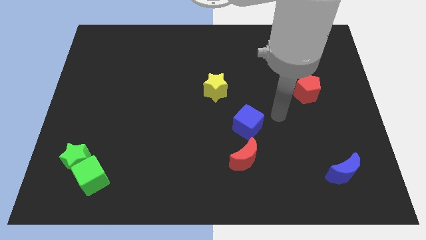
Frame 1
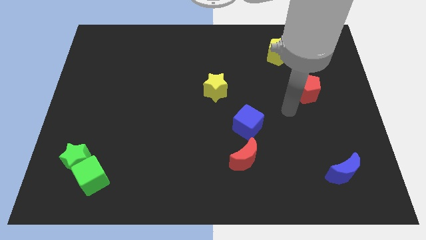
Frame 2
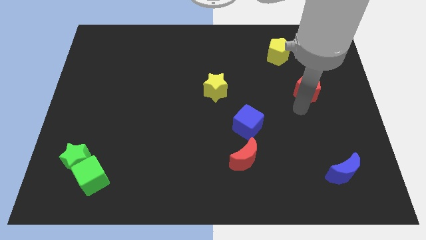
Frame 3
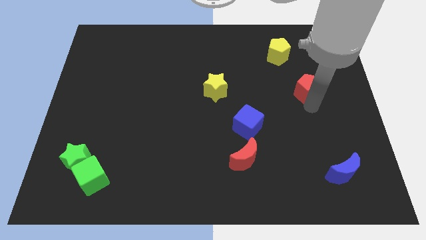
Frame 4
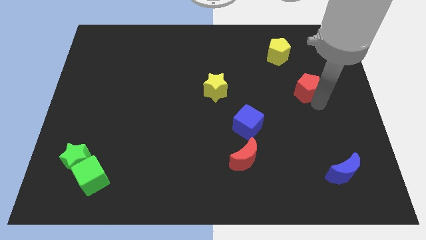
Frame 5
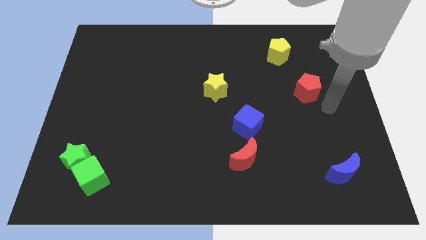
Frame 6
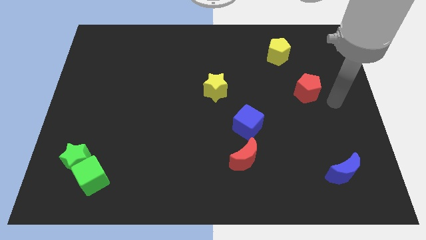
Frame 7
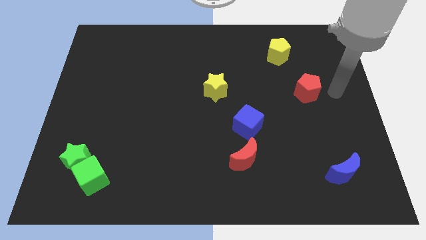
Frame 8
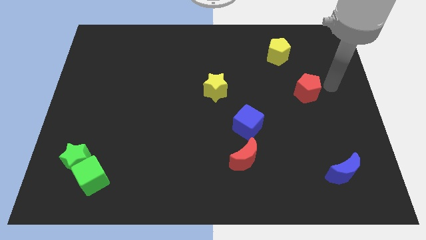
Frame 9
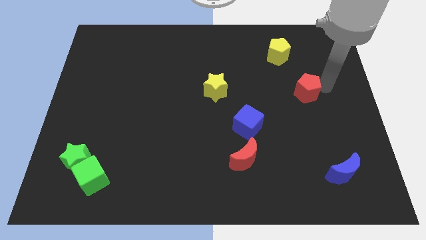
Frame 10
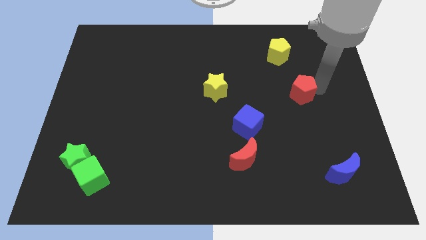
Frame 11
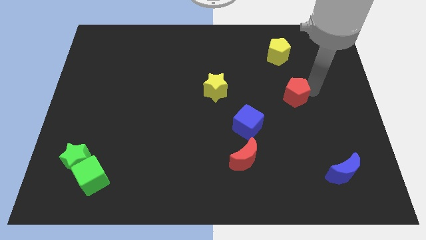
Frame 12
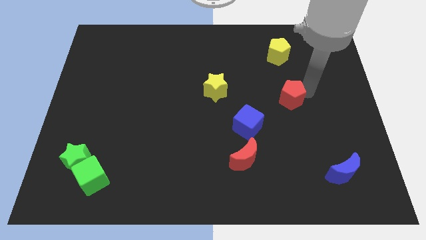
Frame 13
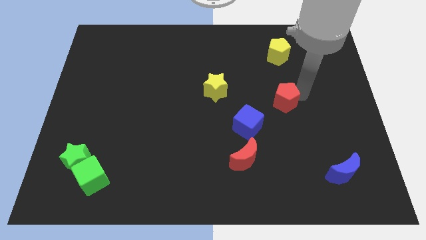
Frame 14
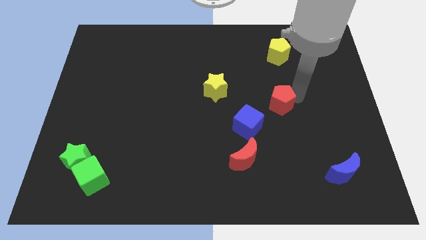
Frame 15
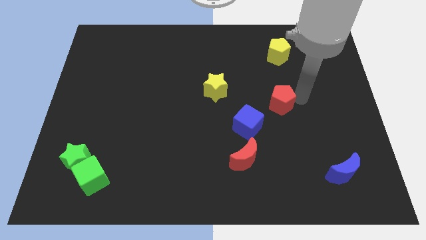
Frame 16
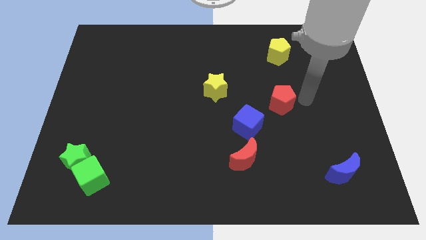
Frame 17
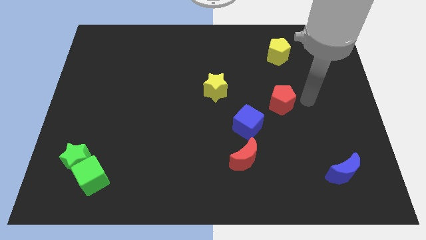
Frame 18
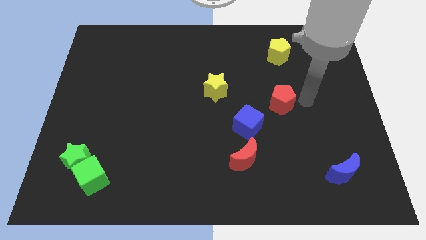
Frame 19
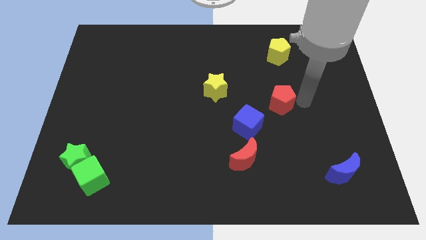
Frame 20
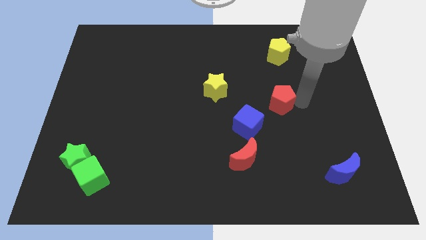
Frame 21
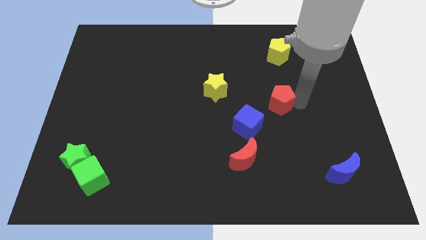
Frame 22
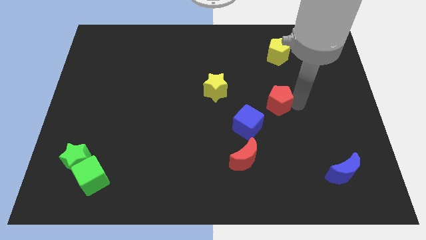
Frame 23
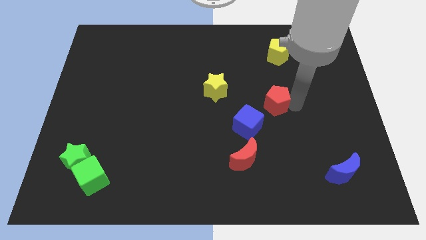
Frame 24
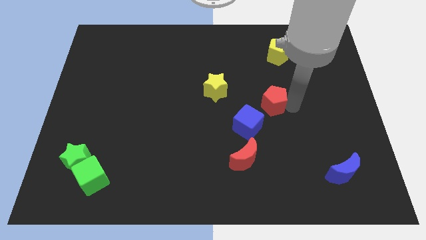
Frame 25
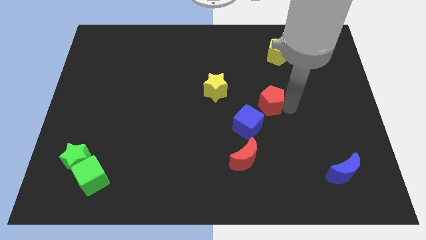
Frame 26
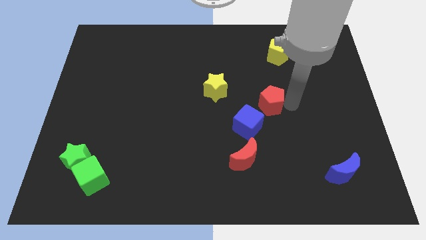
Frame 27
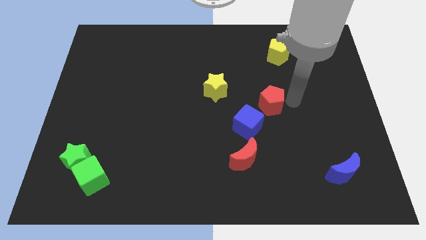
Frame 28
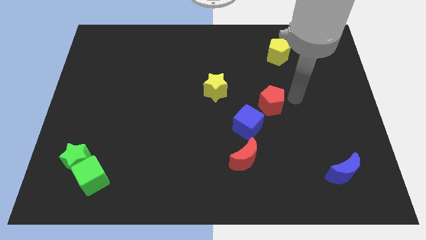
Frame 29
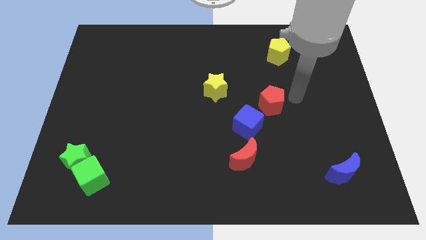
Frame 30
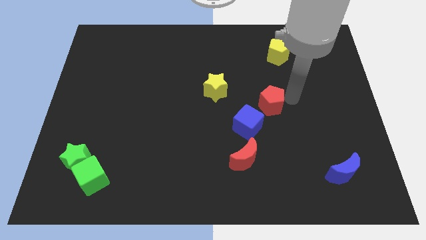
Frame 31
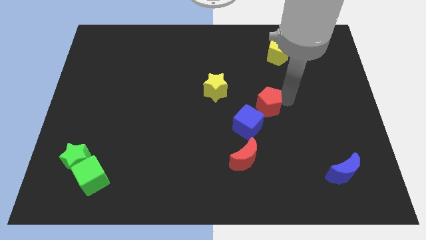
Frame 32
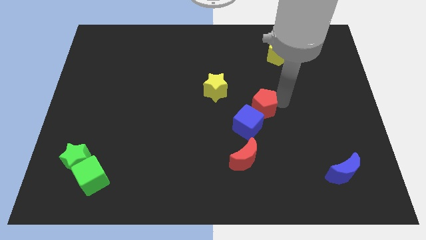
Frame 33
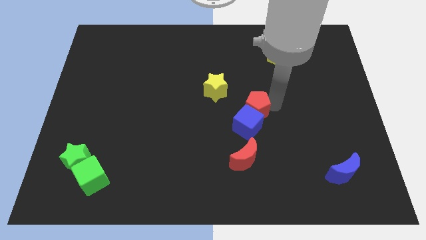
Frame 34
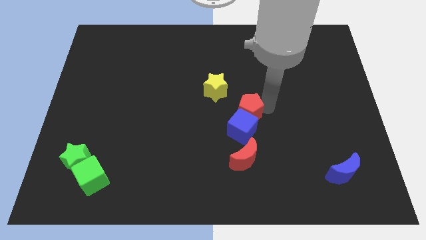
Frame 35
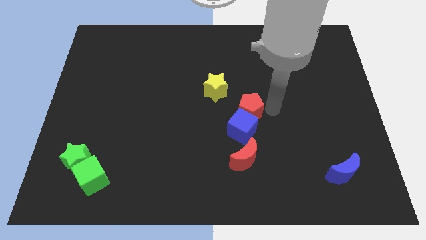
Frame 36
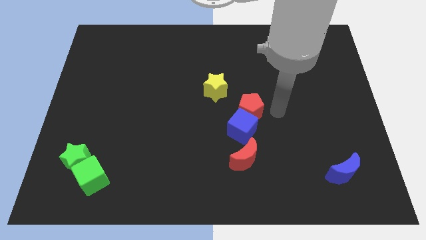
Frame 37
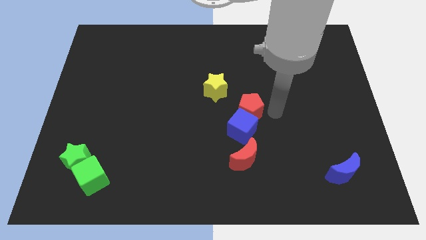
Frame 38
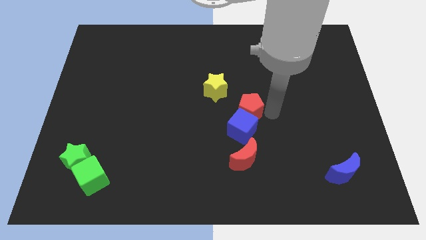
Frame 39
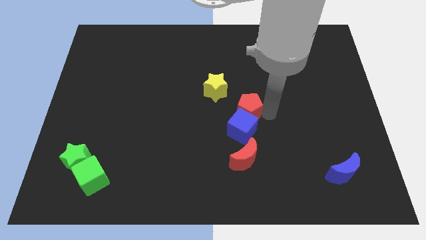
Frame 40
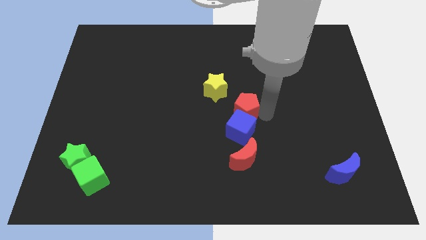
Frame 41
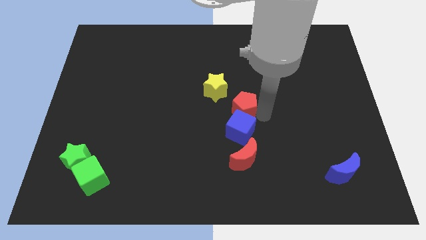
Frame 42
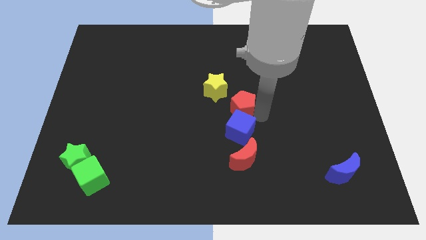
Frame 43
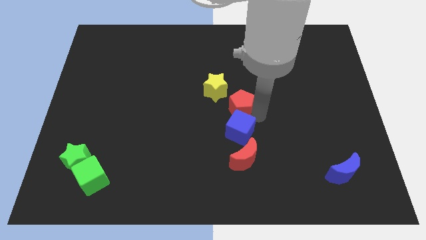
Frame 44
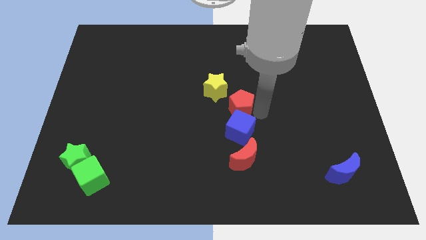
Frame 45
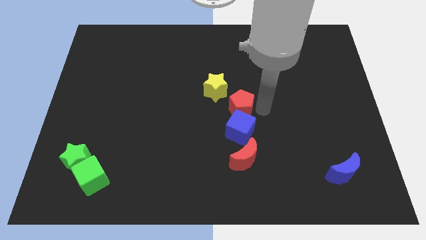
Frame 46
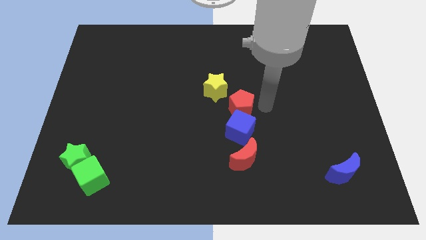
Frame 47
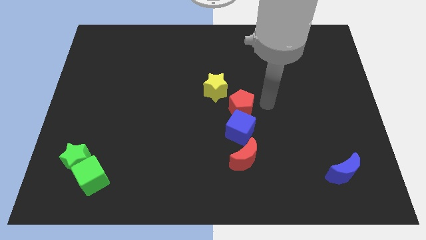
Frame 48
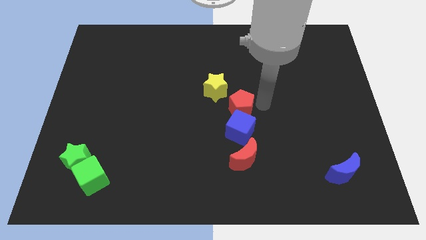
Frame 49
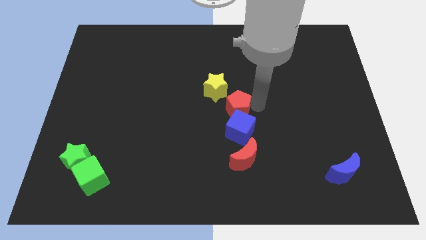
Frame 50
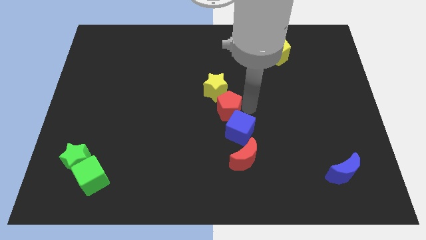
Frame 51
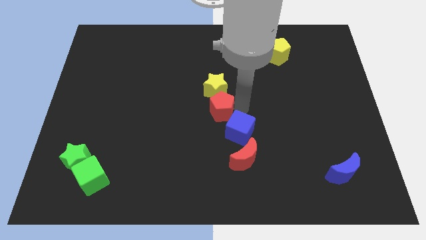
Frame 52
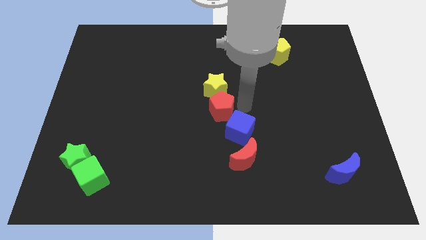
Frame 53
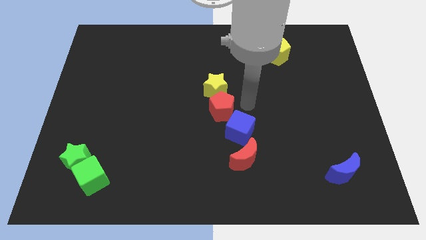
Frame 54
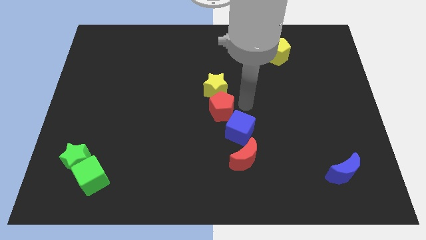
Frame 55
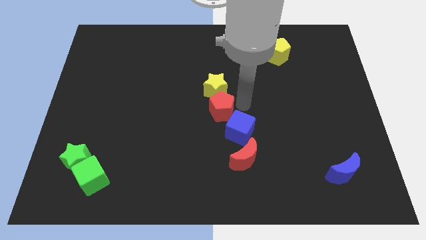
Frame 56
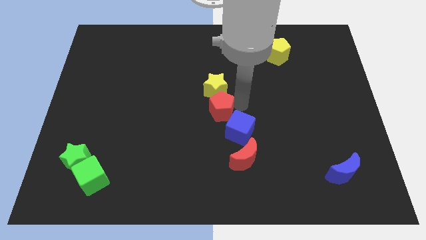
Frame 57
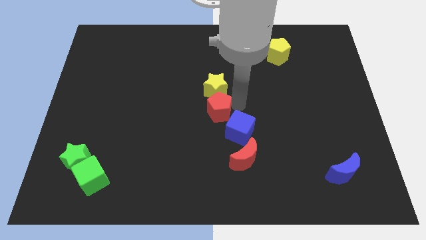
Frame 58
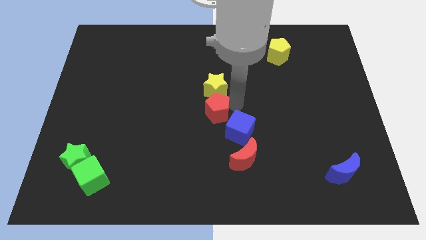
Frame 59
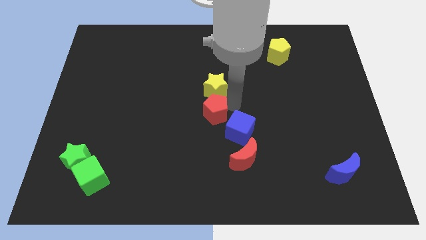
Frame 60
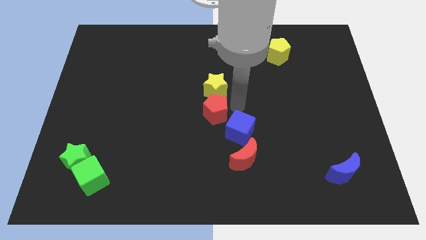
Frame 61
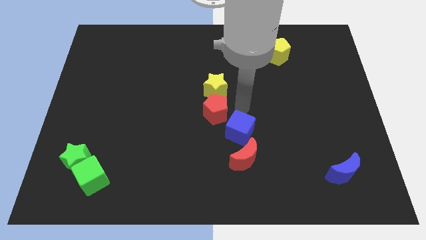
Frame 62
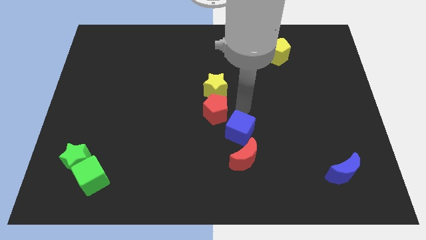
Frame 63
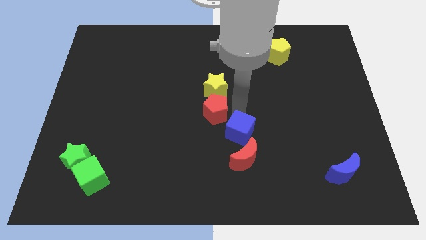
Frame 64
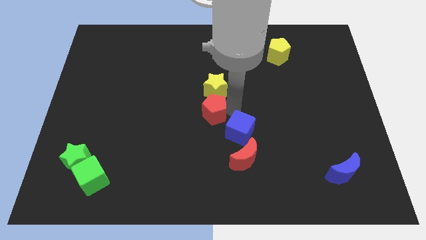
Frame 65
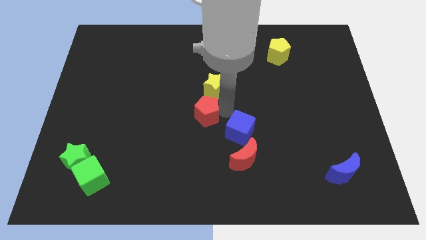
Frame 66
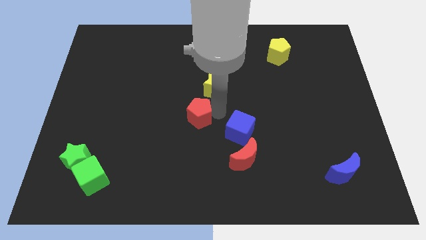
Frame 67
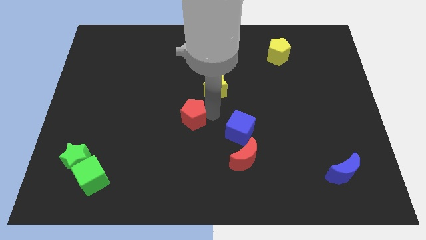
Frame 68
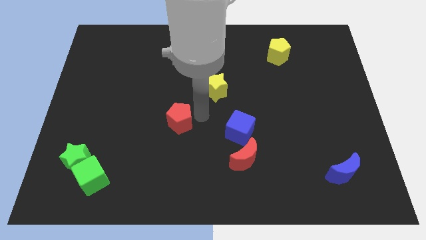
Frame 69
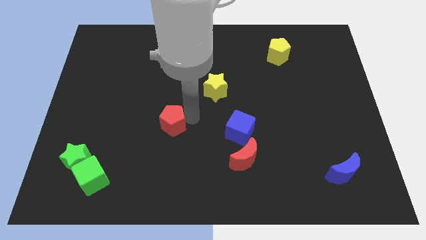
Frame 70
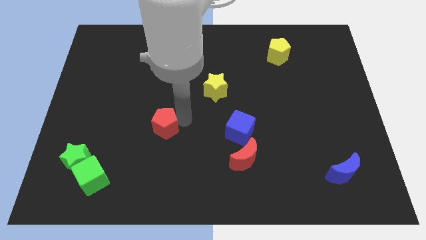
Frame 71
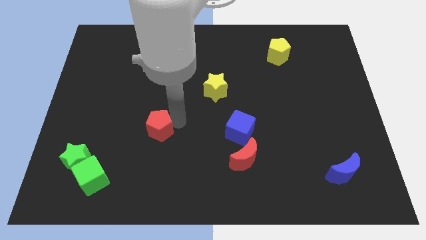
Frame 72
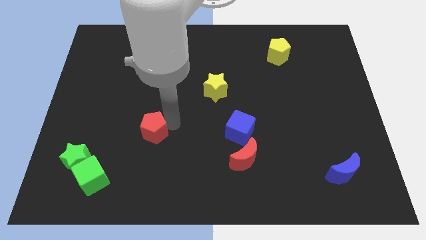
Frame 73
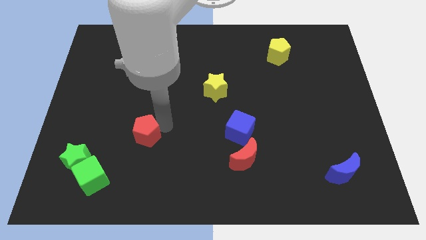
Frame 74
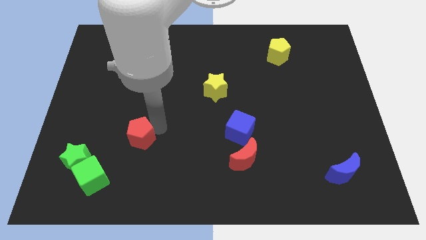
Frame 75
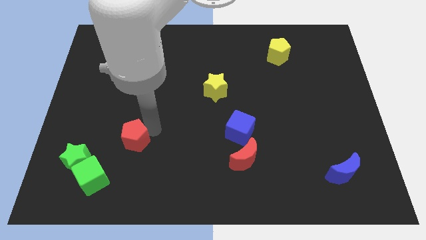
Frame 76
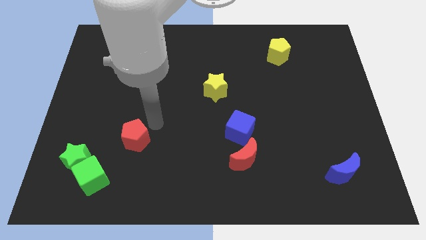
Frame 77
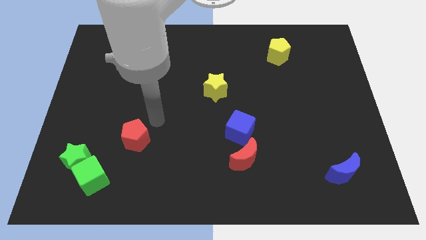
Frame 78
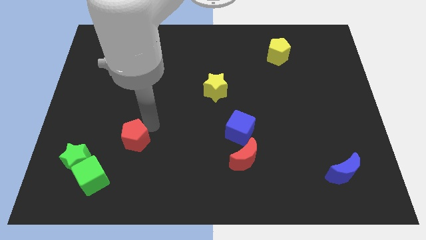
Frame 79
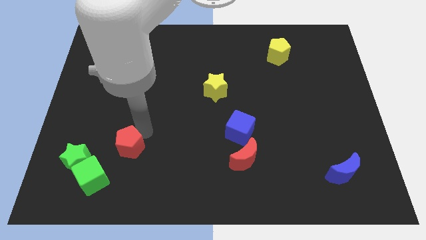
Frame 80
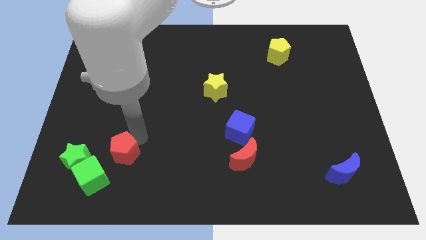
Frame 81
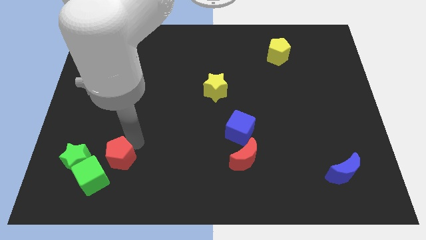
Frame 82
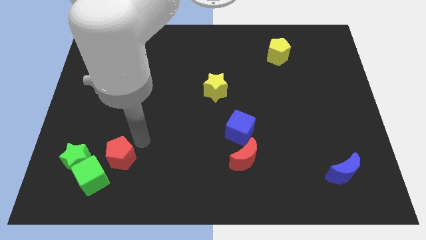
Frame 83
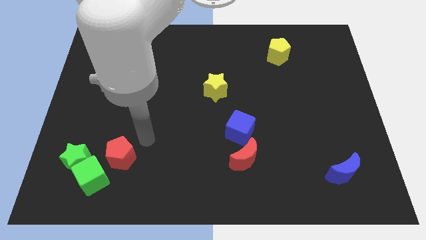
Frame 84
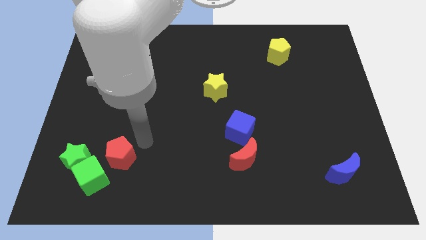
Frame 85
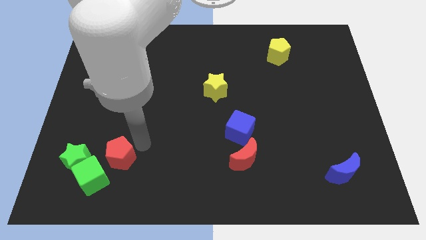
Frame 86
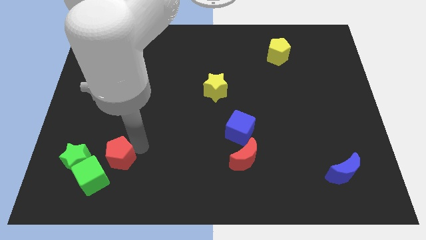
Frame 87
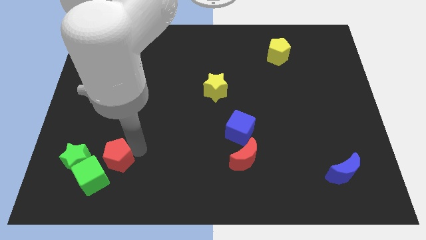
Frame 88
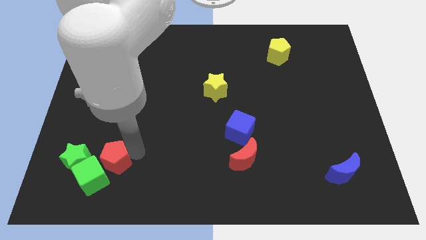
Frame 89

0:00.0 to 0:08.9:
push the red pentagon next to the green cube
